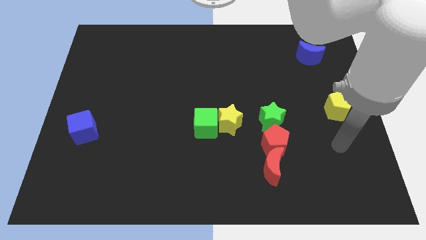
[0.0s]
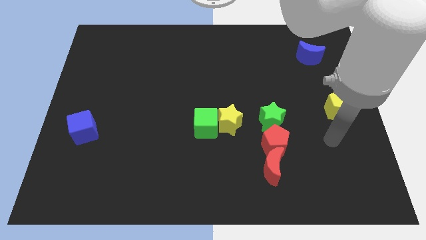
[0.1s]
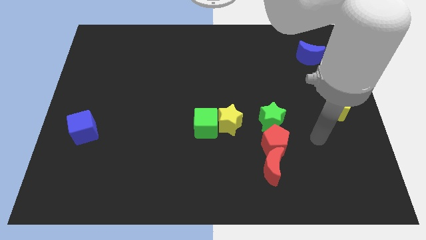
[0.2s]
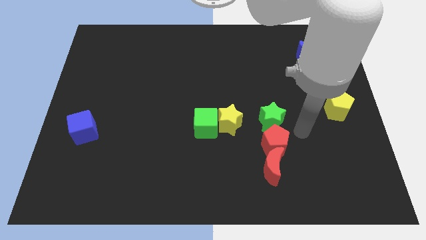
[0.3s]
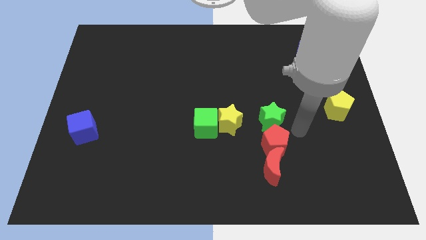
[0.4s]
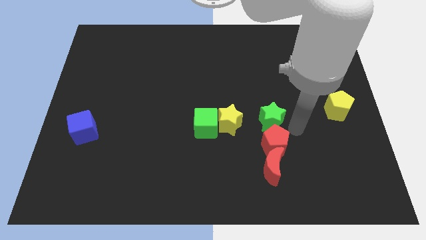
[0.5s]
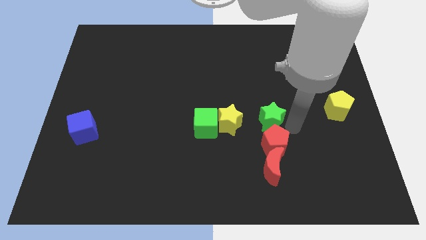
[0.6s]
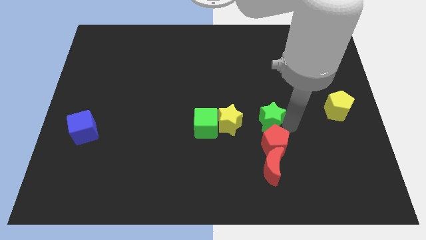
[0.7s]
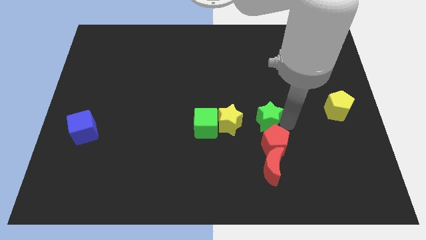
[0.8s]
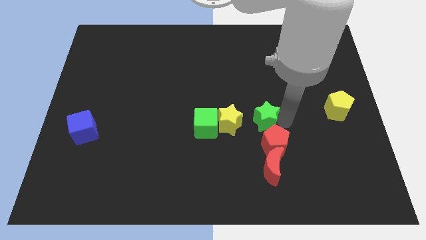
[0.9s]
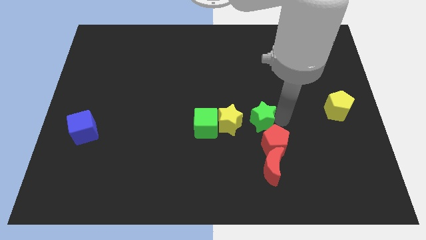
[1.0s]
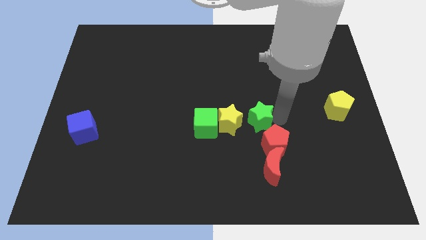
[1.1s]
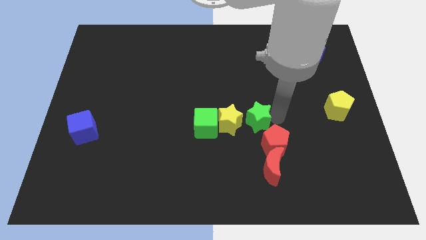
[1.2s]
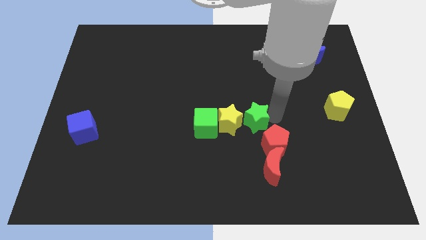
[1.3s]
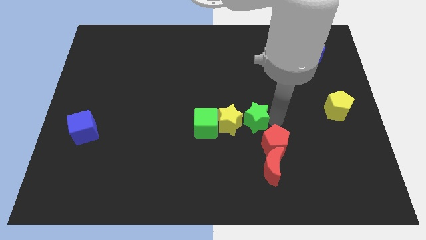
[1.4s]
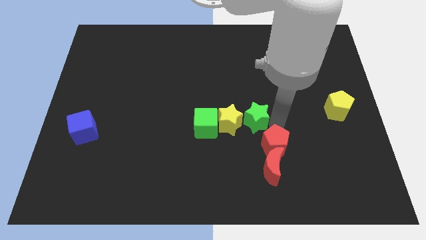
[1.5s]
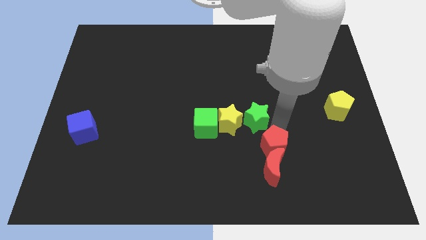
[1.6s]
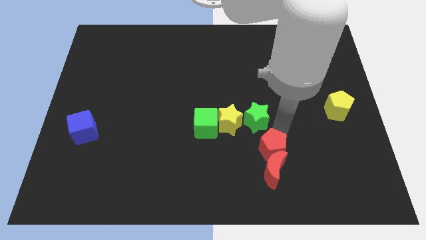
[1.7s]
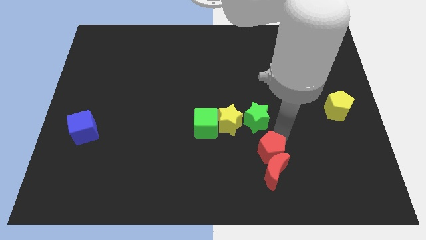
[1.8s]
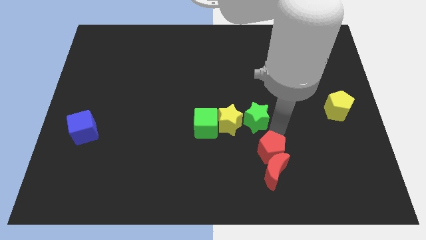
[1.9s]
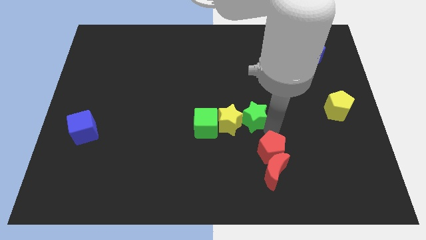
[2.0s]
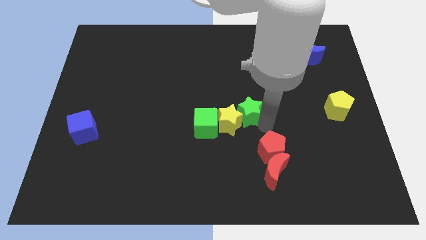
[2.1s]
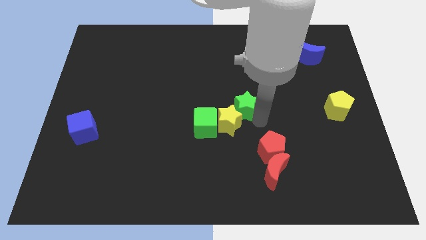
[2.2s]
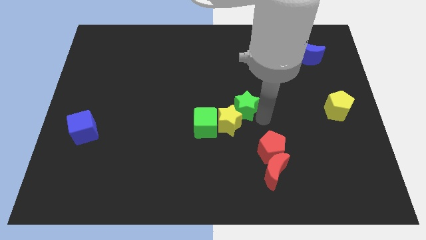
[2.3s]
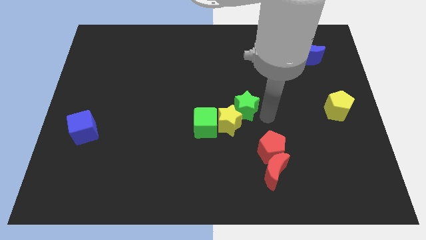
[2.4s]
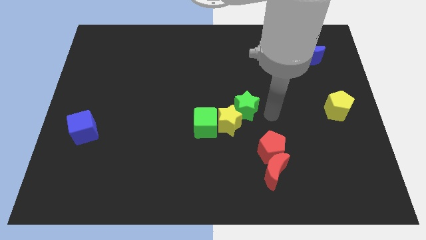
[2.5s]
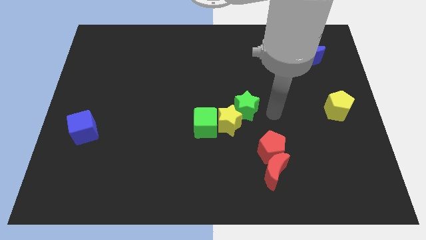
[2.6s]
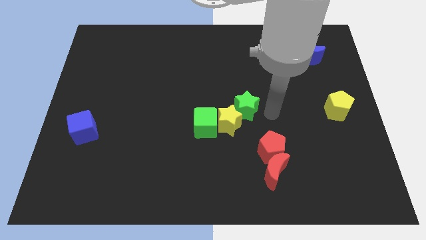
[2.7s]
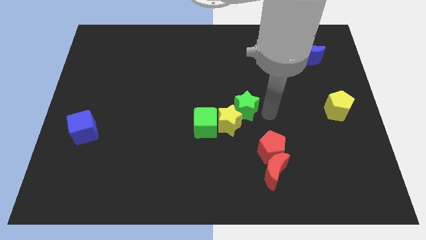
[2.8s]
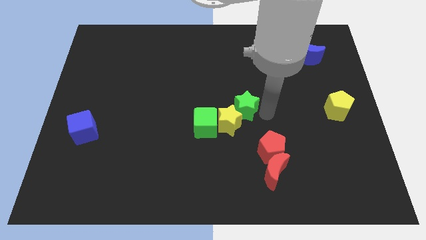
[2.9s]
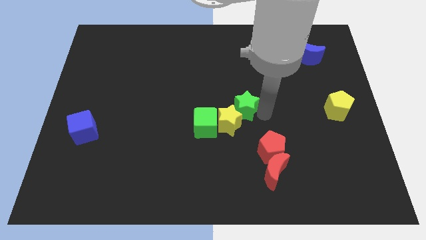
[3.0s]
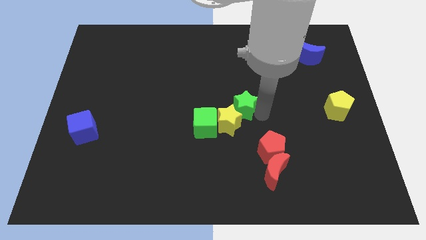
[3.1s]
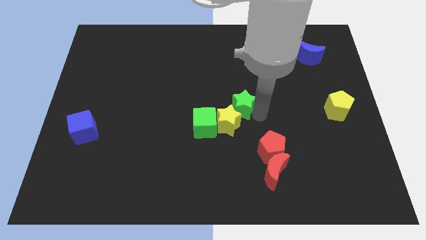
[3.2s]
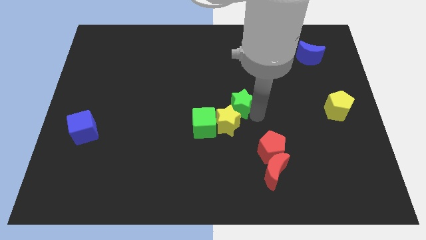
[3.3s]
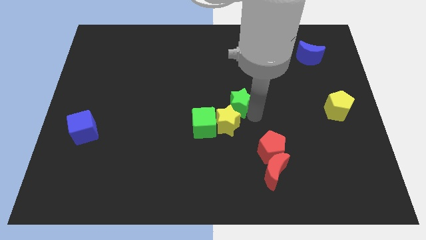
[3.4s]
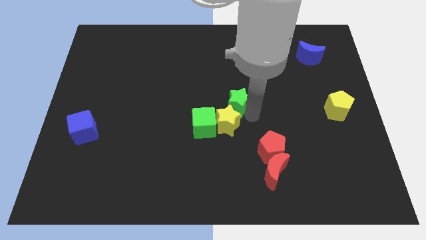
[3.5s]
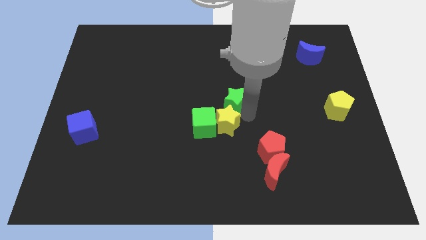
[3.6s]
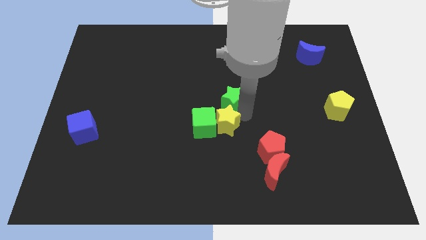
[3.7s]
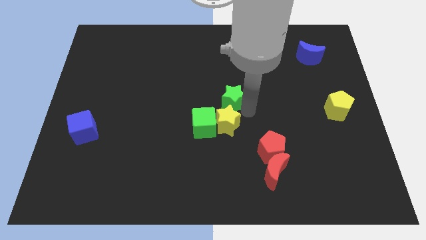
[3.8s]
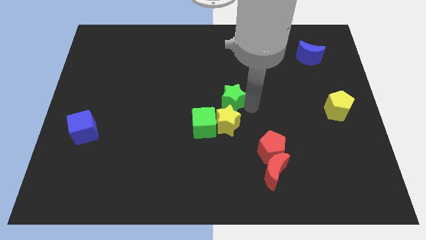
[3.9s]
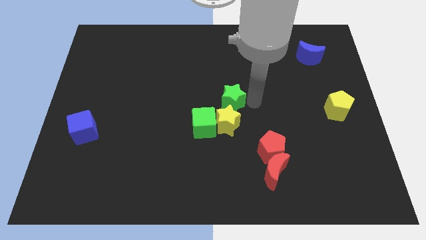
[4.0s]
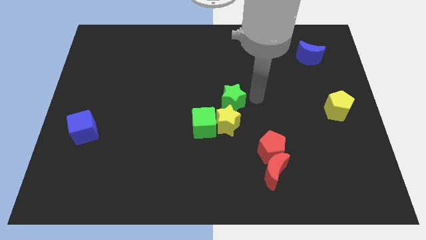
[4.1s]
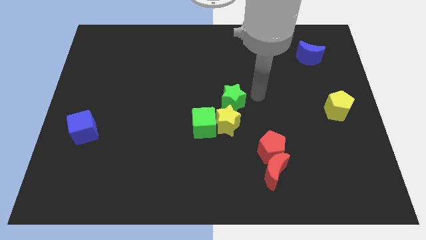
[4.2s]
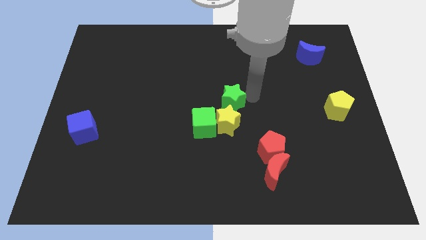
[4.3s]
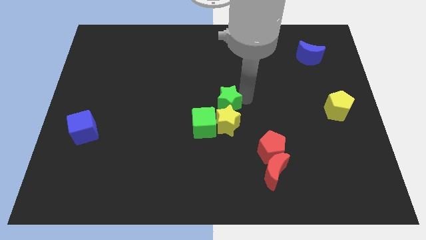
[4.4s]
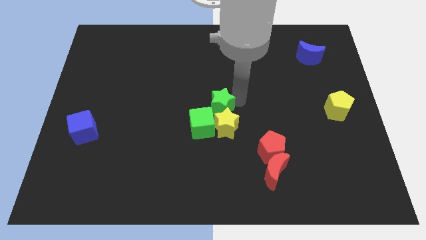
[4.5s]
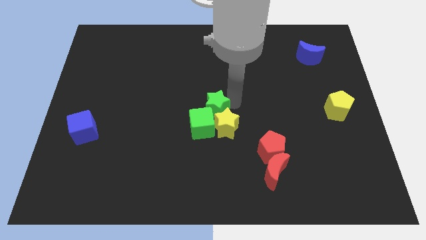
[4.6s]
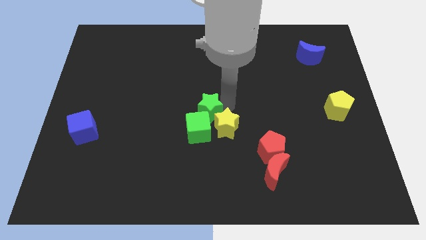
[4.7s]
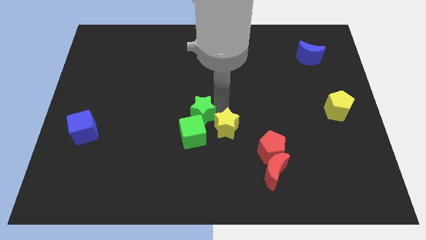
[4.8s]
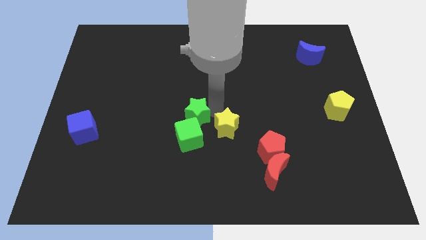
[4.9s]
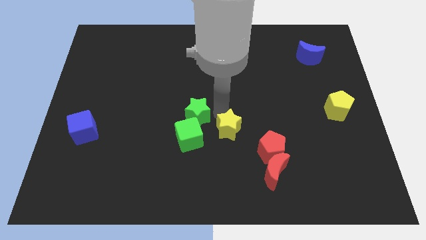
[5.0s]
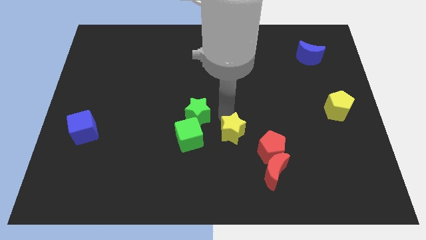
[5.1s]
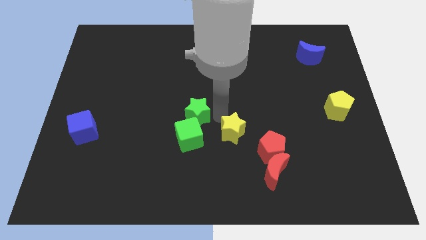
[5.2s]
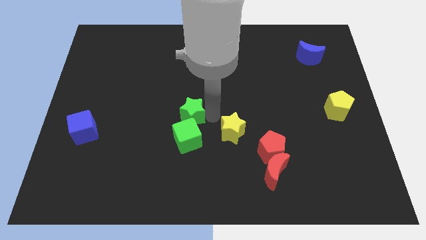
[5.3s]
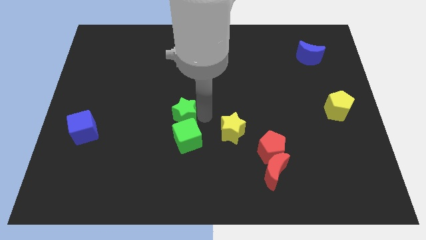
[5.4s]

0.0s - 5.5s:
move the green star to the left

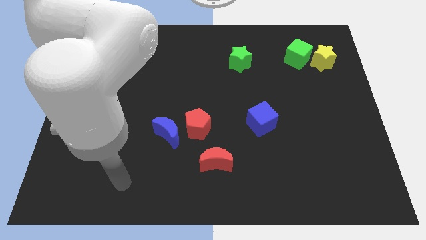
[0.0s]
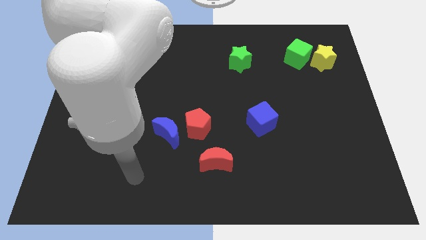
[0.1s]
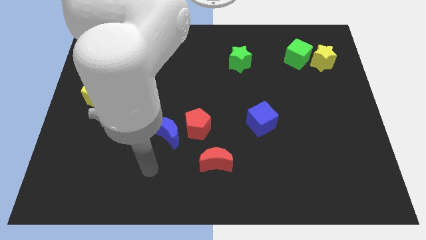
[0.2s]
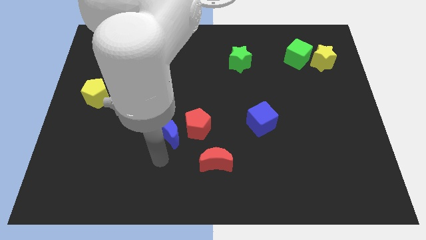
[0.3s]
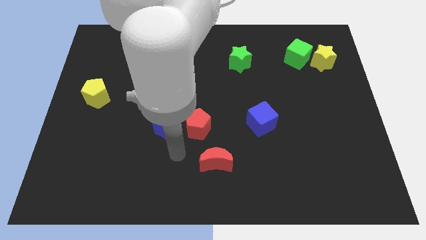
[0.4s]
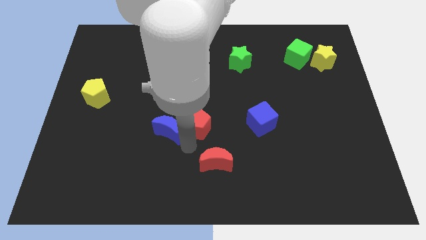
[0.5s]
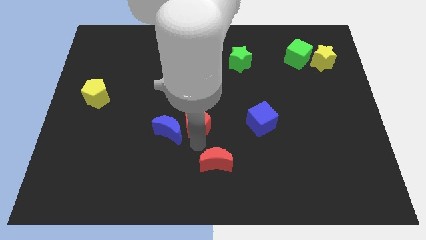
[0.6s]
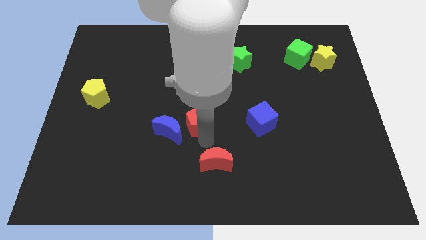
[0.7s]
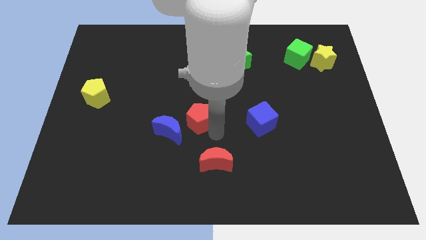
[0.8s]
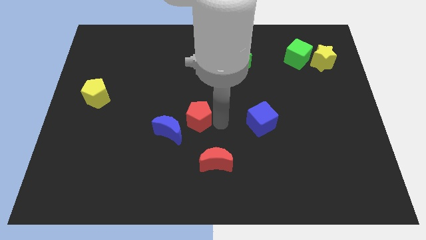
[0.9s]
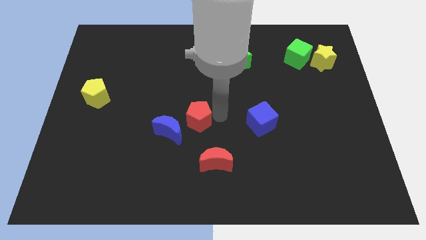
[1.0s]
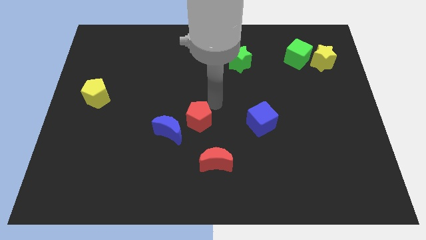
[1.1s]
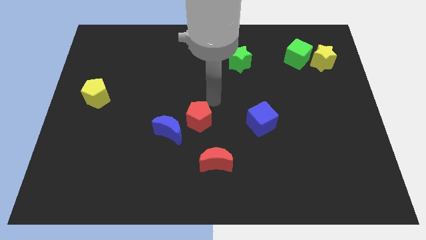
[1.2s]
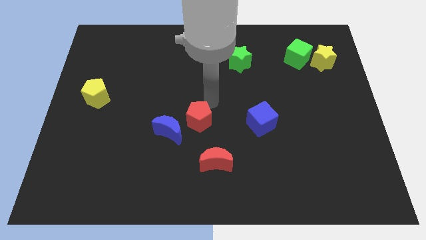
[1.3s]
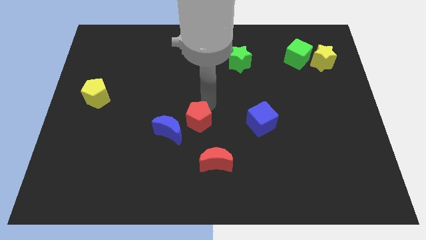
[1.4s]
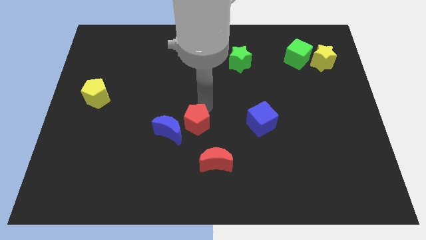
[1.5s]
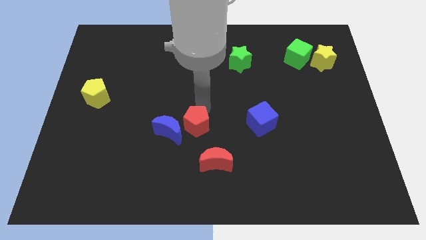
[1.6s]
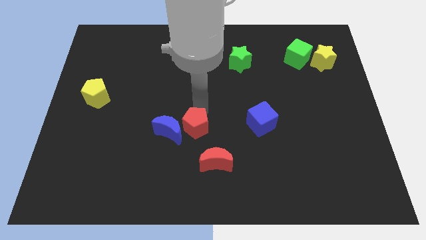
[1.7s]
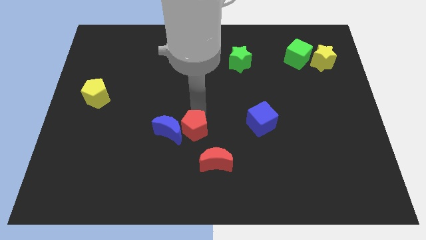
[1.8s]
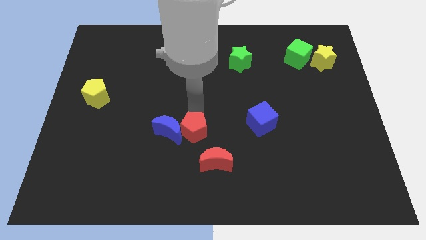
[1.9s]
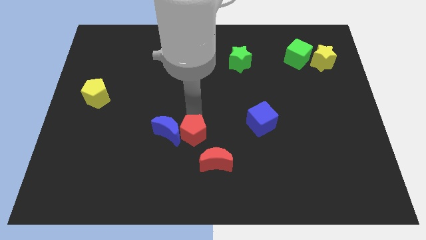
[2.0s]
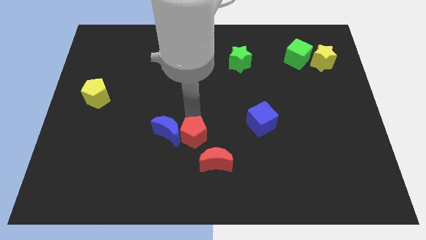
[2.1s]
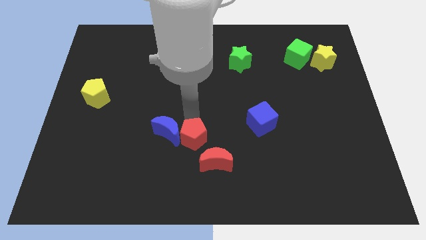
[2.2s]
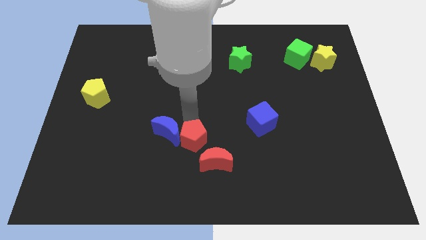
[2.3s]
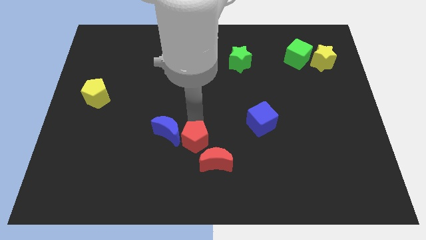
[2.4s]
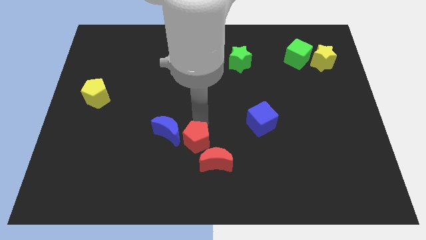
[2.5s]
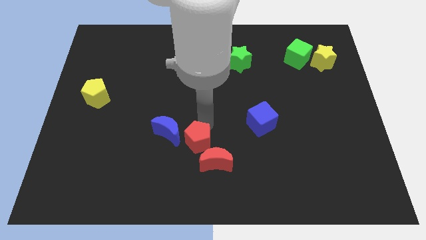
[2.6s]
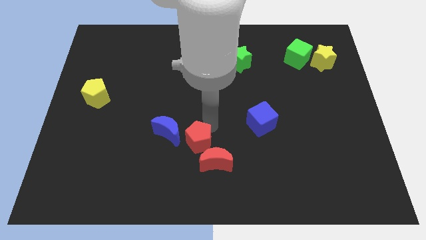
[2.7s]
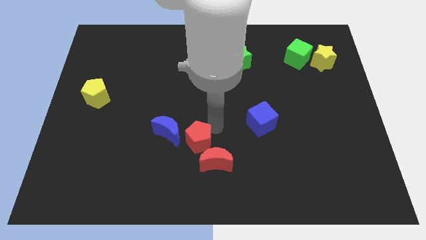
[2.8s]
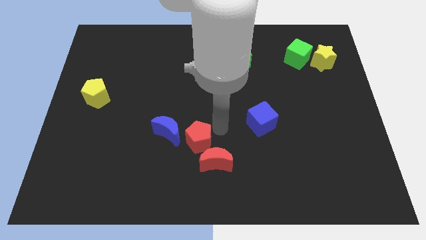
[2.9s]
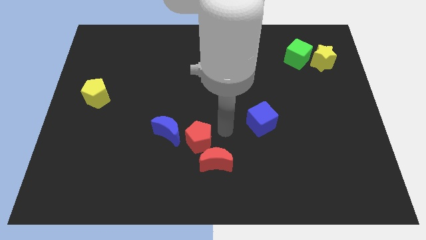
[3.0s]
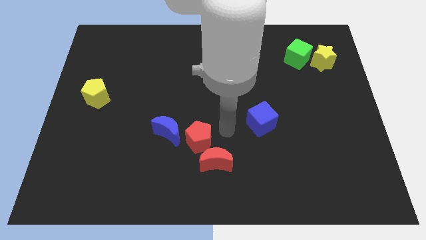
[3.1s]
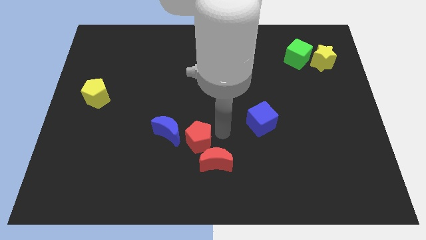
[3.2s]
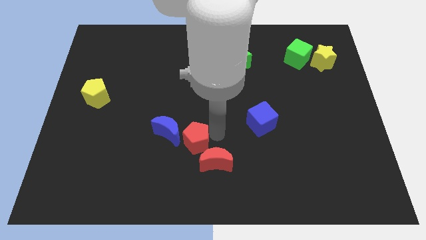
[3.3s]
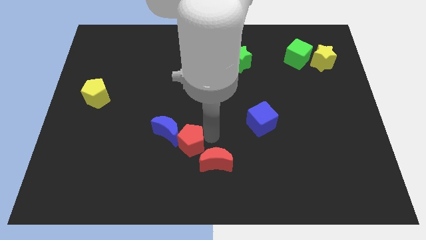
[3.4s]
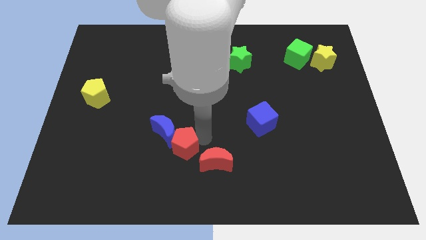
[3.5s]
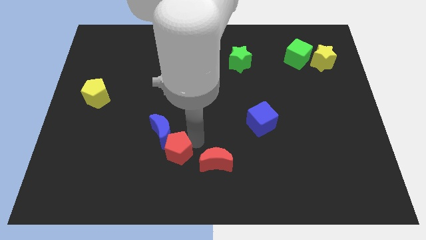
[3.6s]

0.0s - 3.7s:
push the red pentagon down and left diagonally a little
